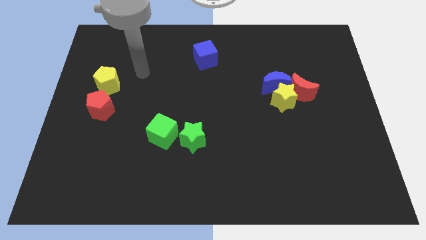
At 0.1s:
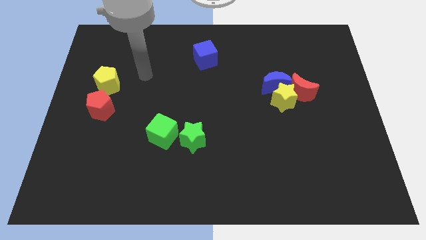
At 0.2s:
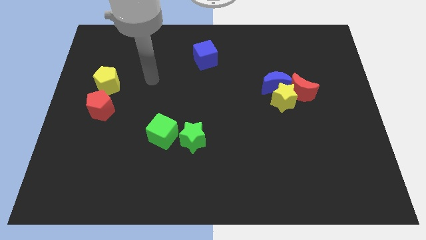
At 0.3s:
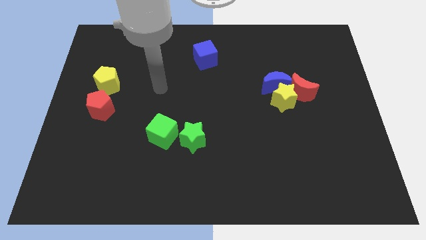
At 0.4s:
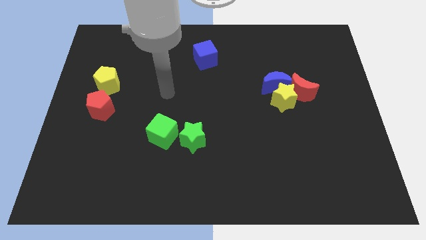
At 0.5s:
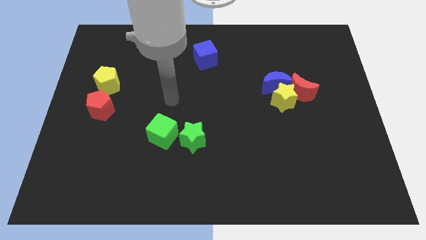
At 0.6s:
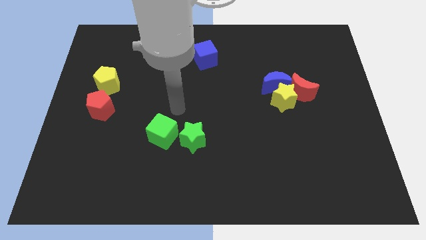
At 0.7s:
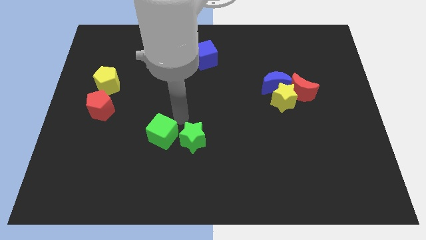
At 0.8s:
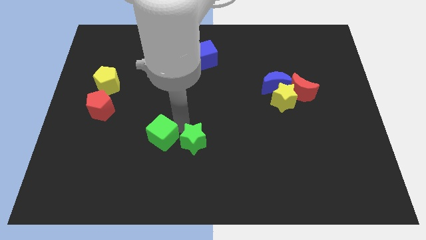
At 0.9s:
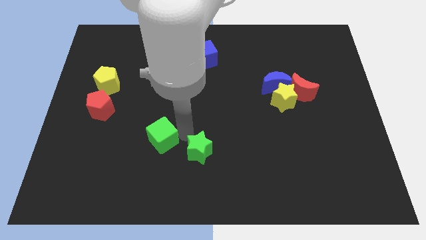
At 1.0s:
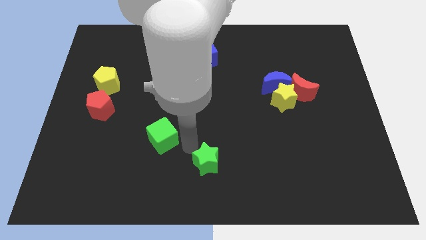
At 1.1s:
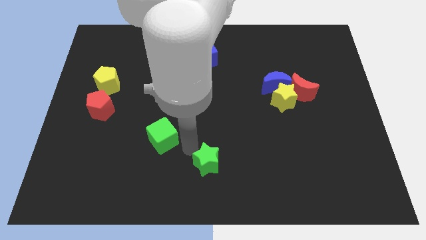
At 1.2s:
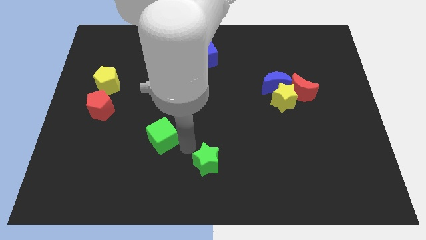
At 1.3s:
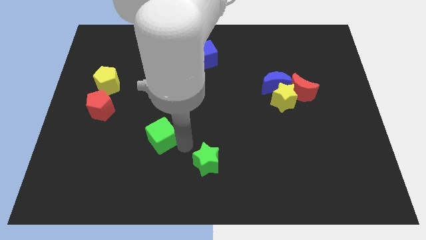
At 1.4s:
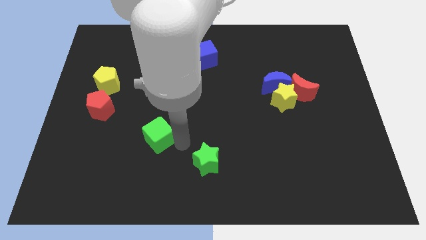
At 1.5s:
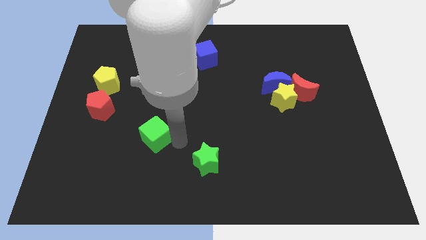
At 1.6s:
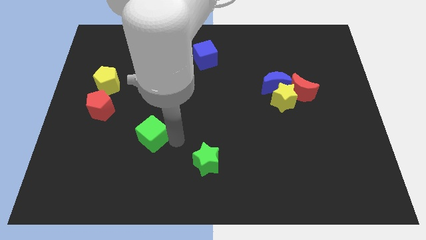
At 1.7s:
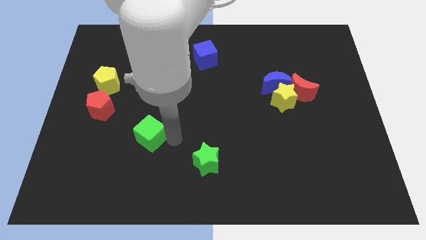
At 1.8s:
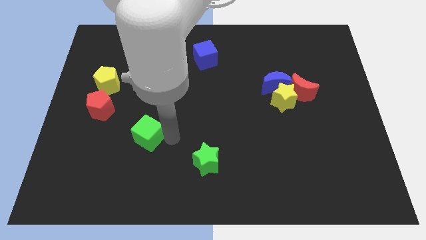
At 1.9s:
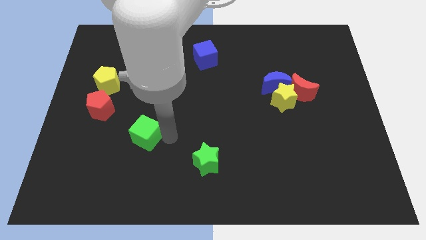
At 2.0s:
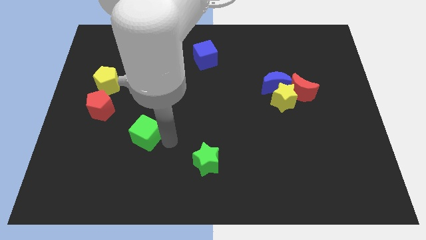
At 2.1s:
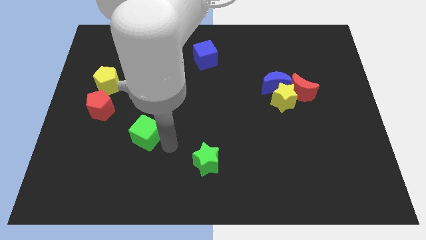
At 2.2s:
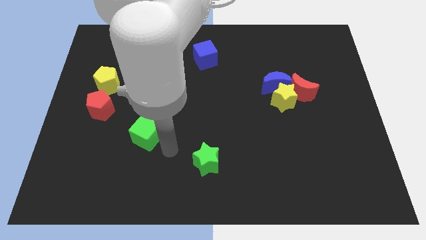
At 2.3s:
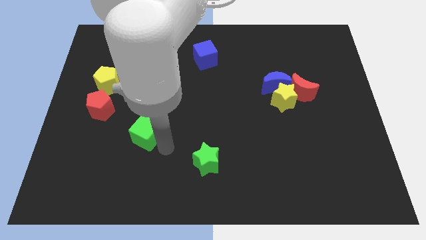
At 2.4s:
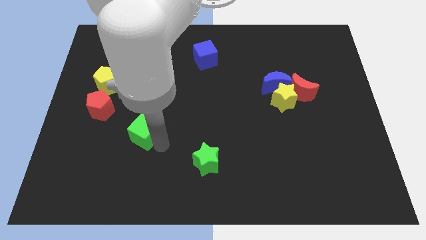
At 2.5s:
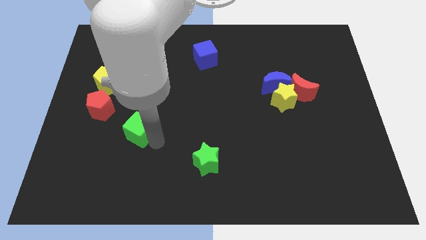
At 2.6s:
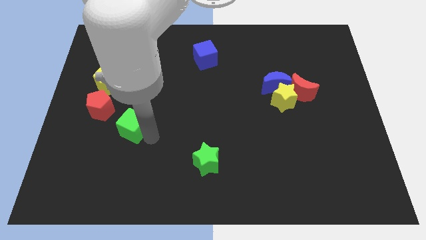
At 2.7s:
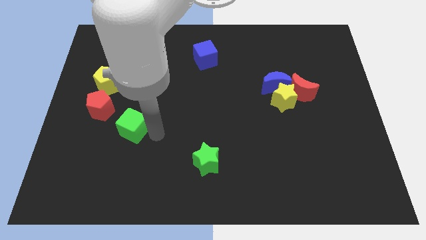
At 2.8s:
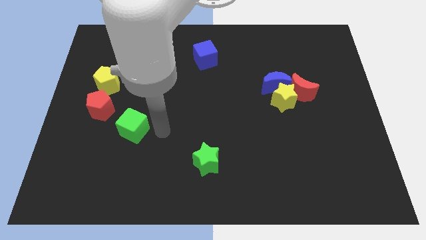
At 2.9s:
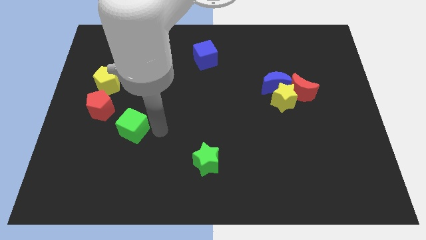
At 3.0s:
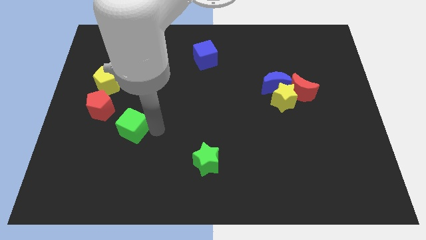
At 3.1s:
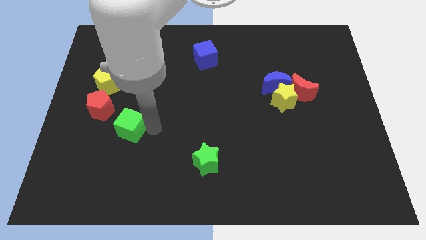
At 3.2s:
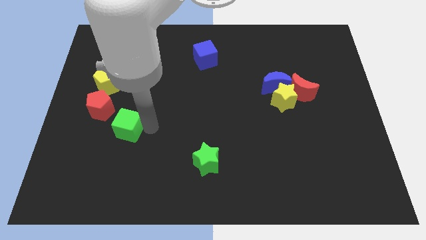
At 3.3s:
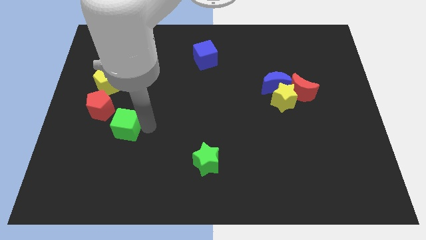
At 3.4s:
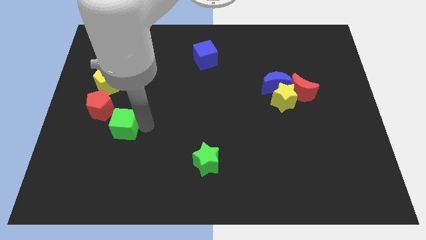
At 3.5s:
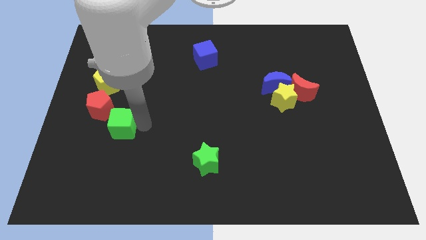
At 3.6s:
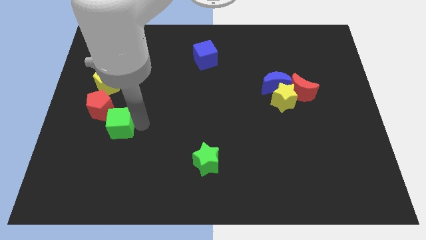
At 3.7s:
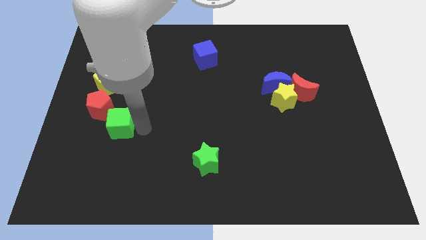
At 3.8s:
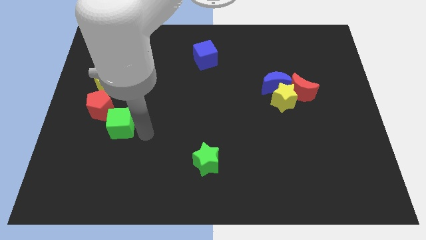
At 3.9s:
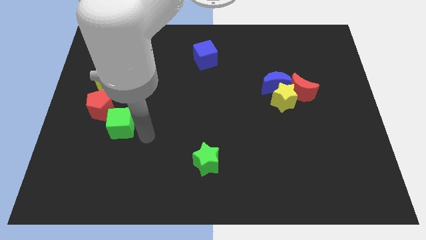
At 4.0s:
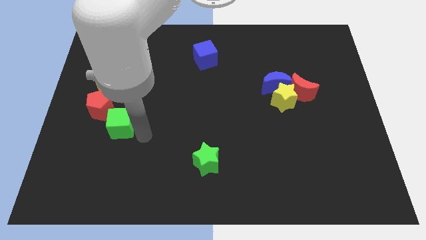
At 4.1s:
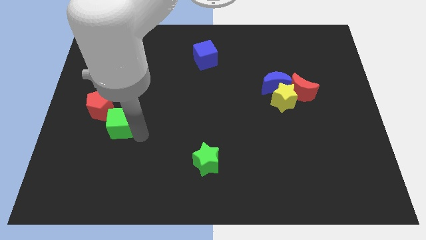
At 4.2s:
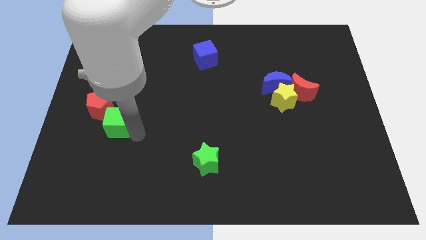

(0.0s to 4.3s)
push the green cube below the yellow pentagon

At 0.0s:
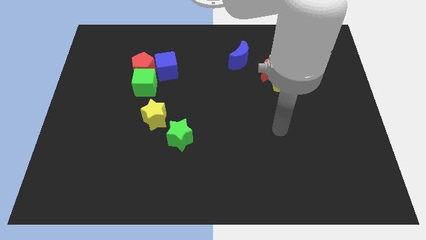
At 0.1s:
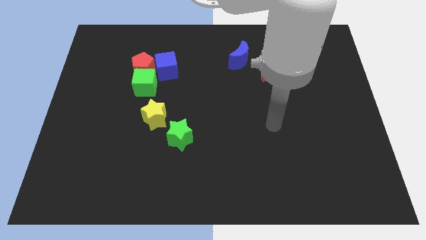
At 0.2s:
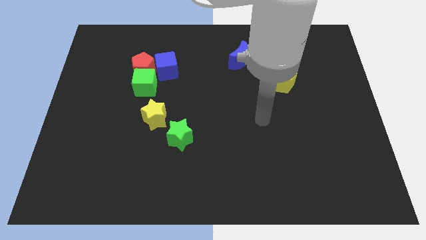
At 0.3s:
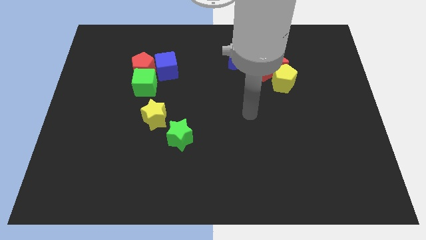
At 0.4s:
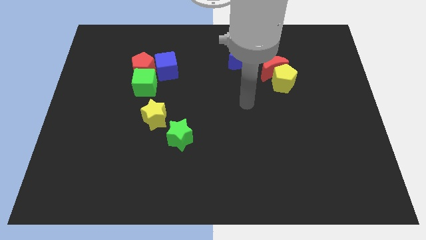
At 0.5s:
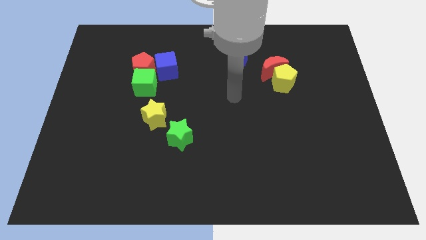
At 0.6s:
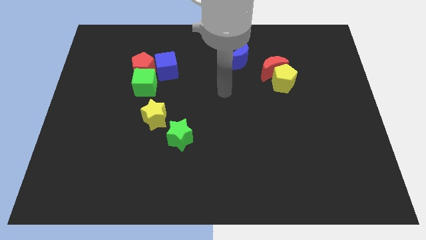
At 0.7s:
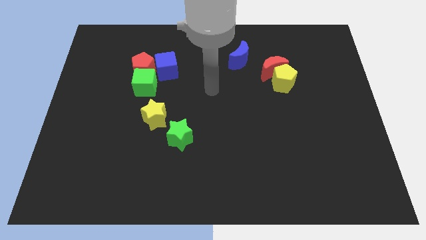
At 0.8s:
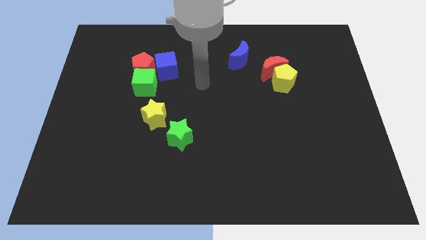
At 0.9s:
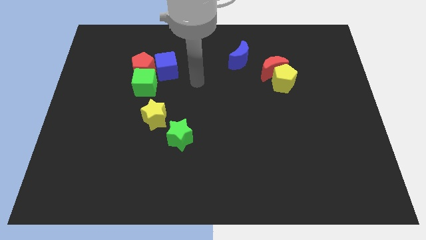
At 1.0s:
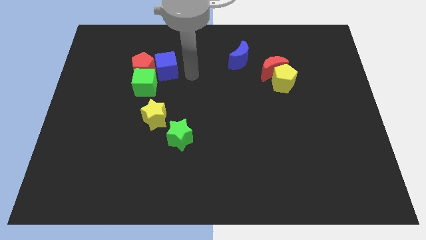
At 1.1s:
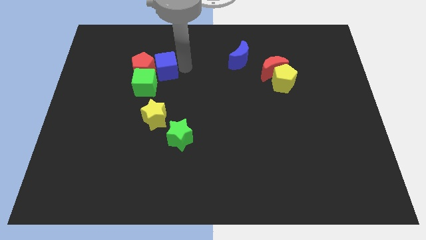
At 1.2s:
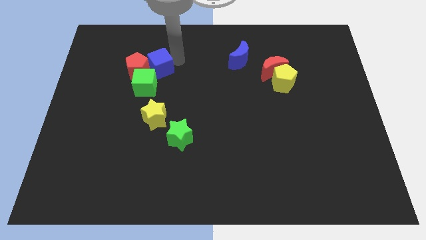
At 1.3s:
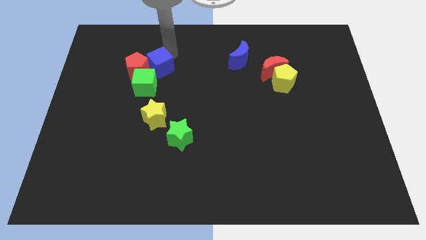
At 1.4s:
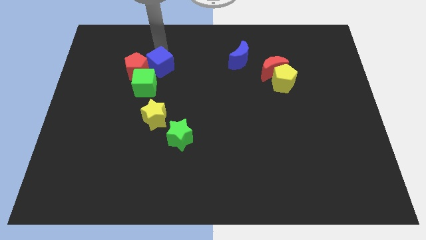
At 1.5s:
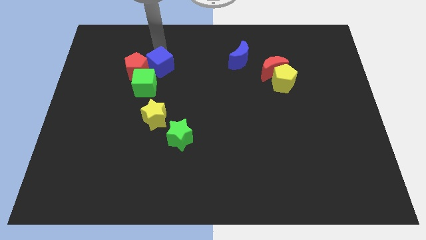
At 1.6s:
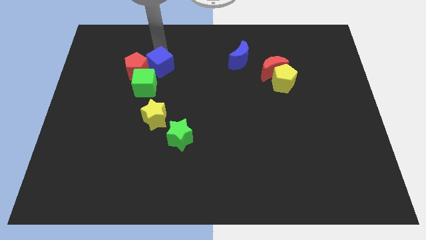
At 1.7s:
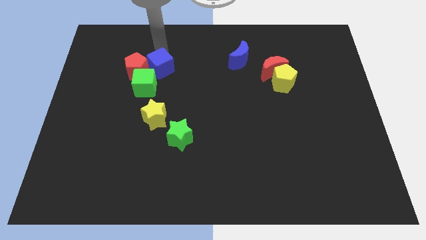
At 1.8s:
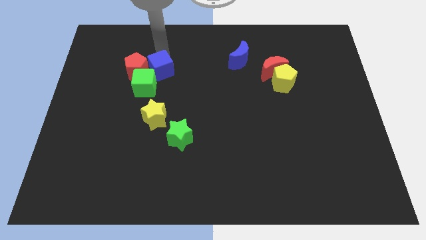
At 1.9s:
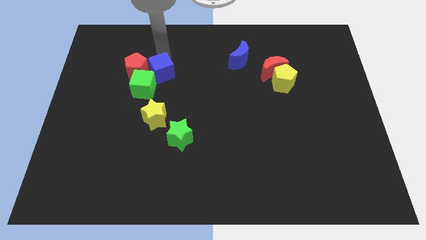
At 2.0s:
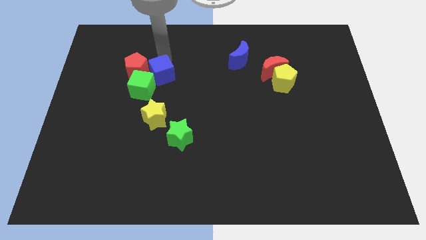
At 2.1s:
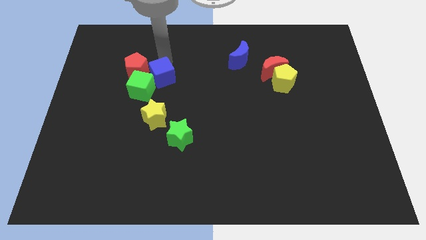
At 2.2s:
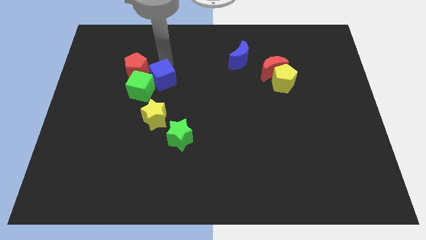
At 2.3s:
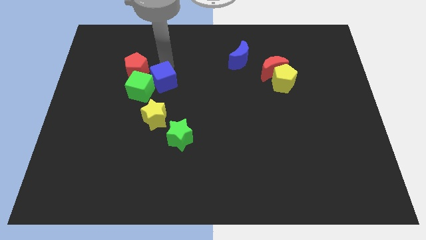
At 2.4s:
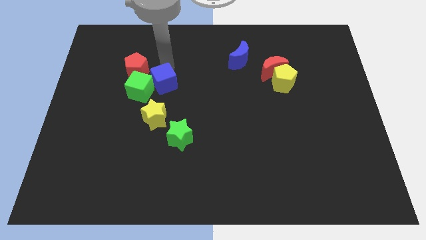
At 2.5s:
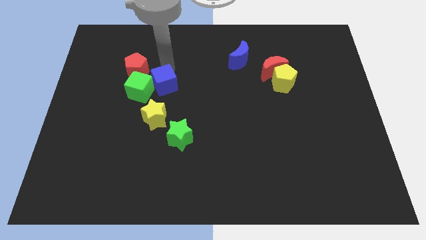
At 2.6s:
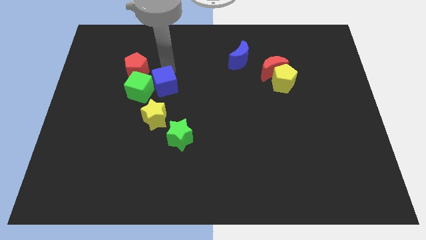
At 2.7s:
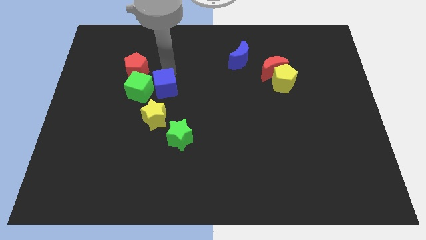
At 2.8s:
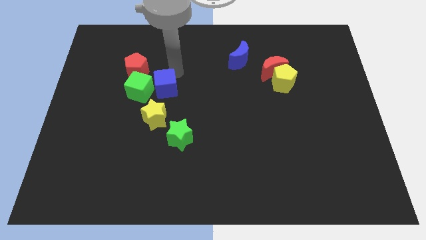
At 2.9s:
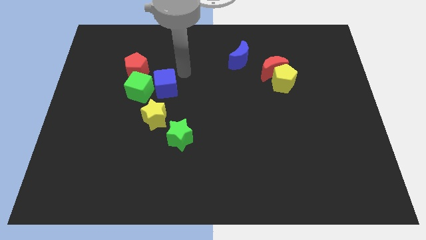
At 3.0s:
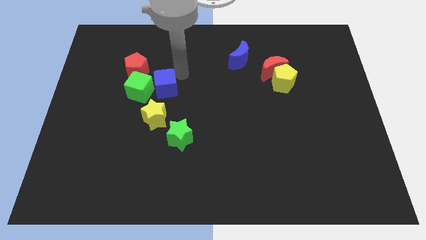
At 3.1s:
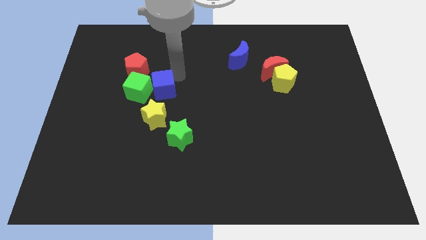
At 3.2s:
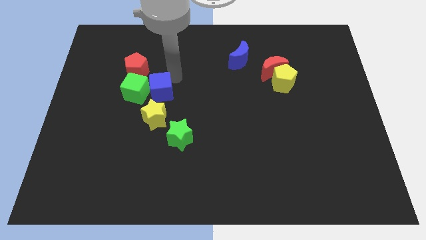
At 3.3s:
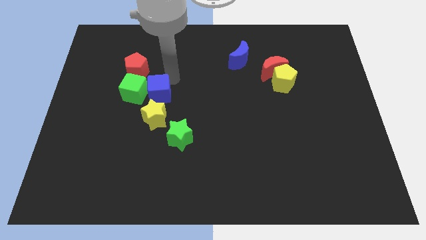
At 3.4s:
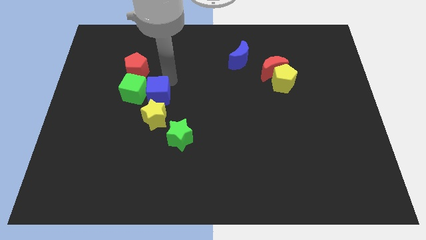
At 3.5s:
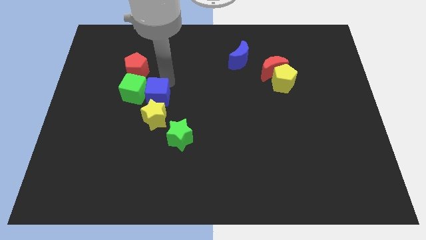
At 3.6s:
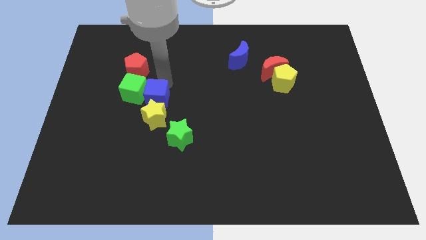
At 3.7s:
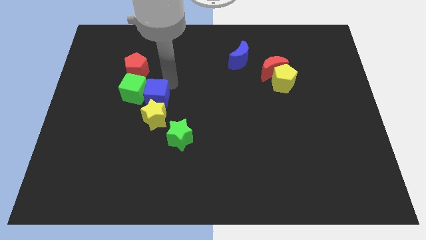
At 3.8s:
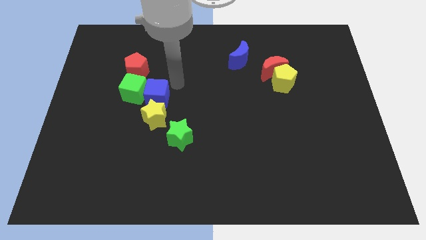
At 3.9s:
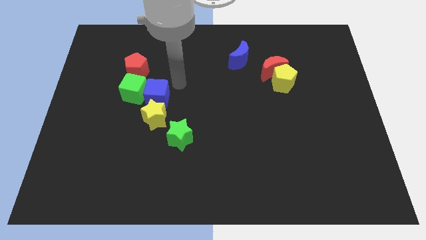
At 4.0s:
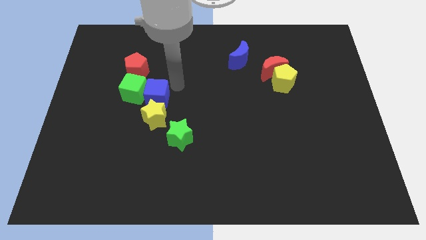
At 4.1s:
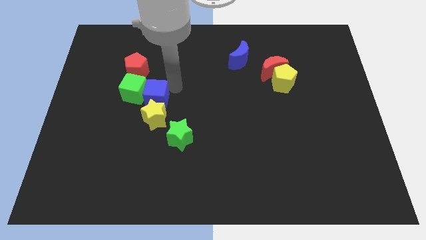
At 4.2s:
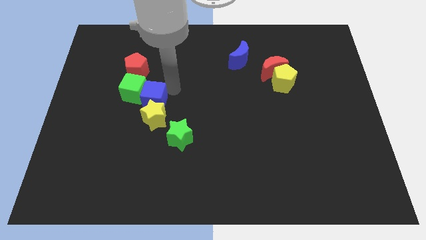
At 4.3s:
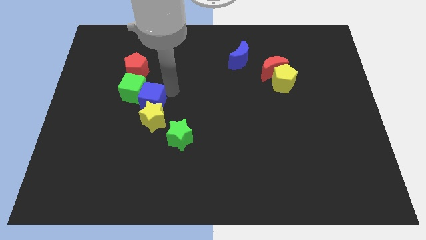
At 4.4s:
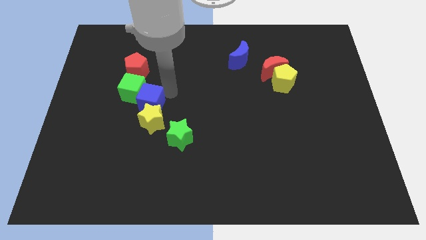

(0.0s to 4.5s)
slide the blue cube to the bottom side of the green cube
